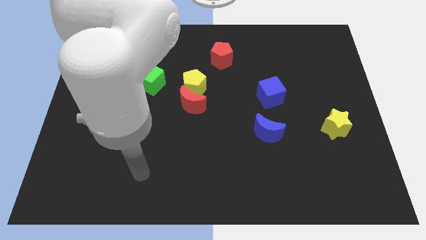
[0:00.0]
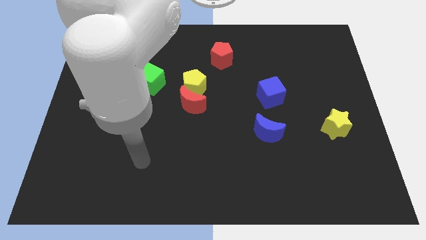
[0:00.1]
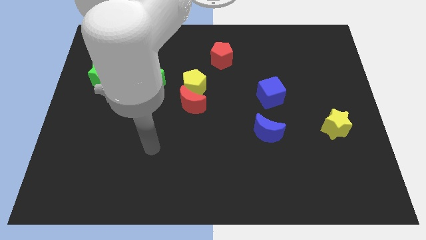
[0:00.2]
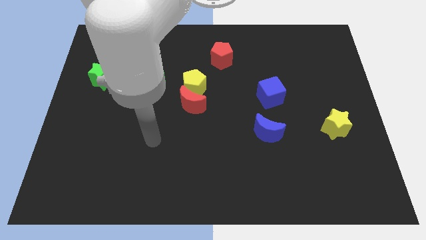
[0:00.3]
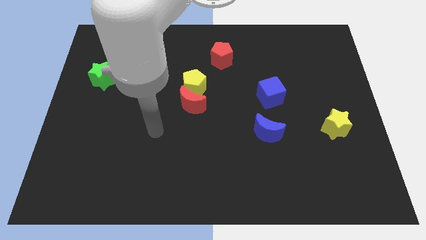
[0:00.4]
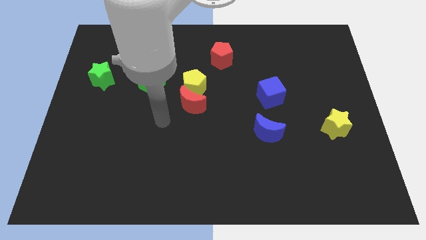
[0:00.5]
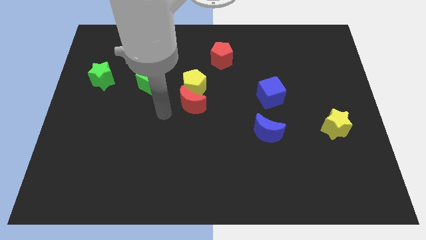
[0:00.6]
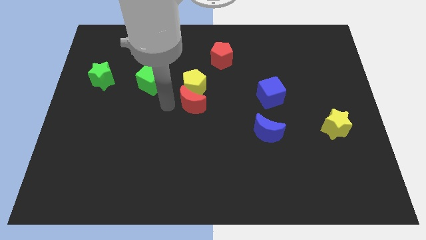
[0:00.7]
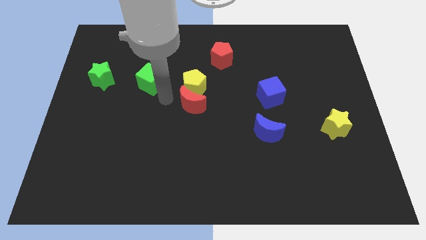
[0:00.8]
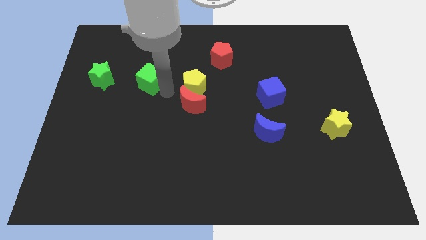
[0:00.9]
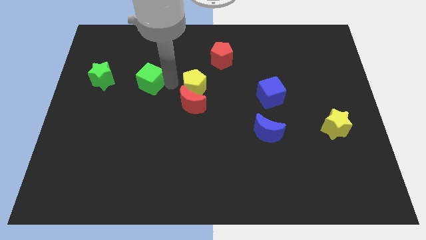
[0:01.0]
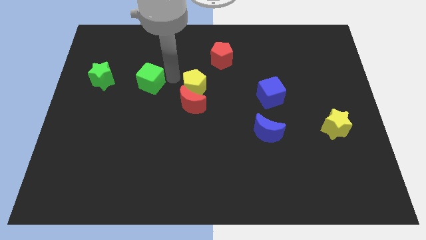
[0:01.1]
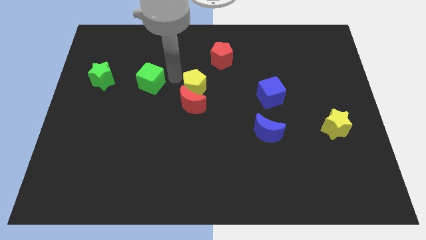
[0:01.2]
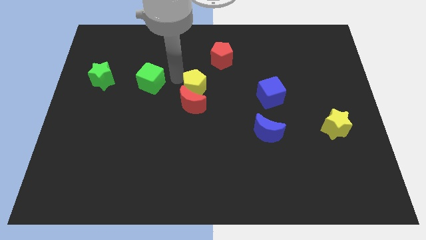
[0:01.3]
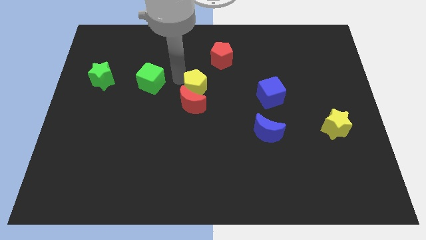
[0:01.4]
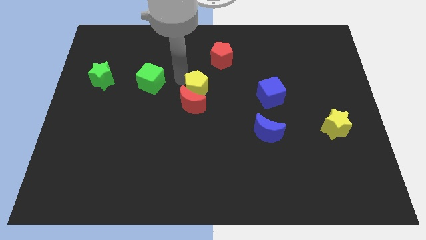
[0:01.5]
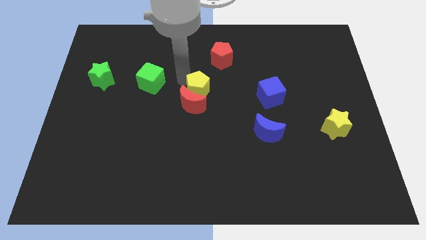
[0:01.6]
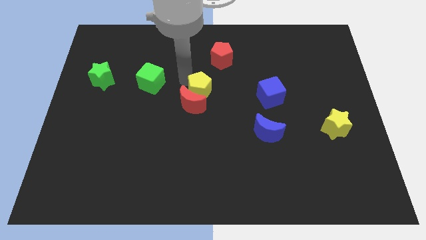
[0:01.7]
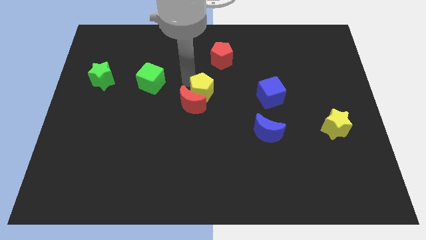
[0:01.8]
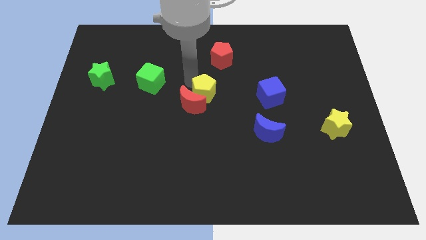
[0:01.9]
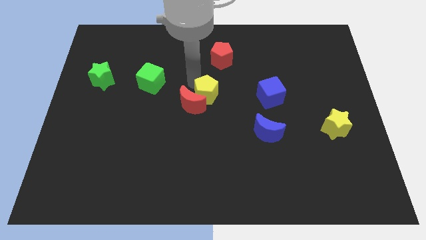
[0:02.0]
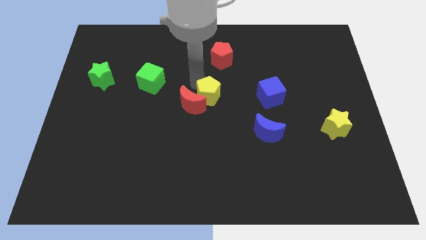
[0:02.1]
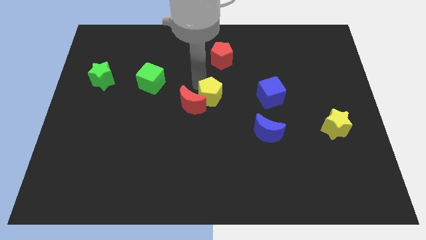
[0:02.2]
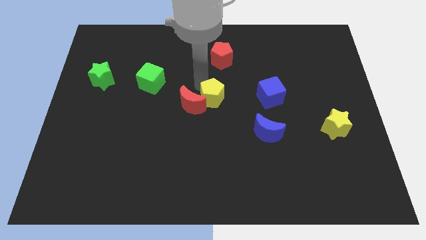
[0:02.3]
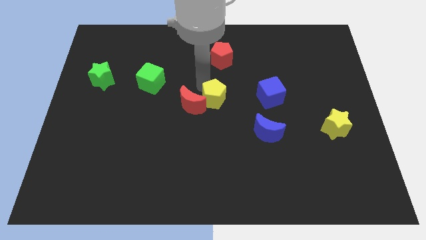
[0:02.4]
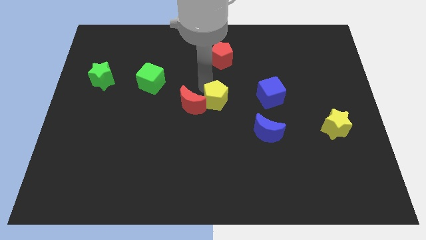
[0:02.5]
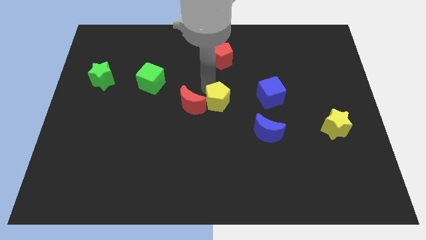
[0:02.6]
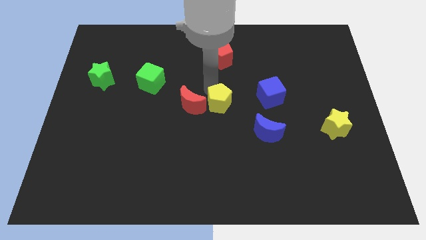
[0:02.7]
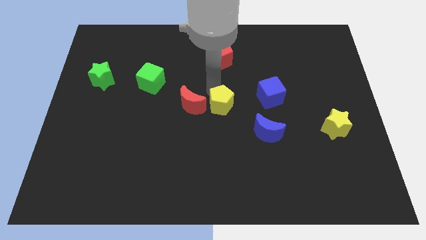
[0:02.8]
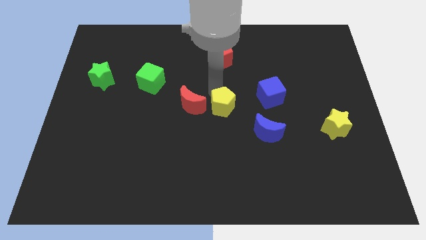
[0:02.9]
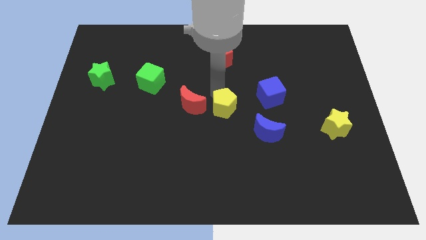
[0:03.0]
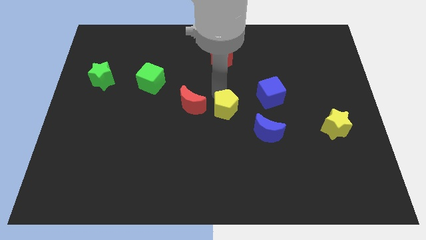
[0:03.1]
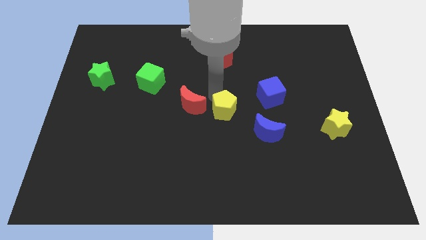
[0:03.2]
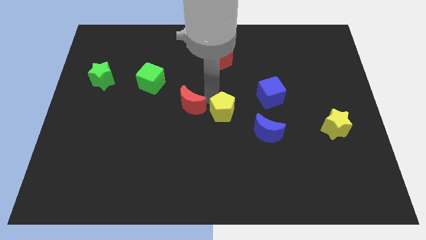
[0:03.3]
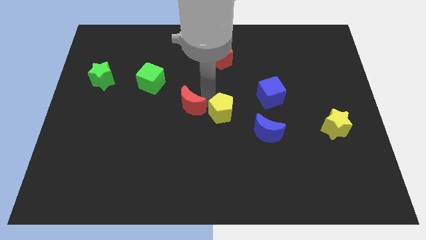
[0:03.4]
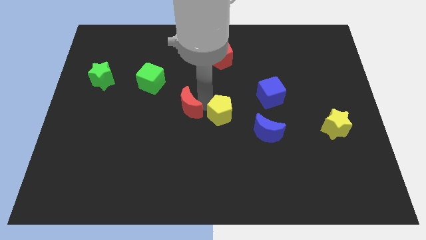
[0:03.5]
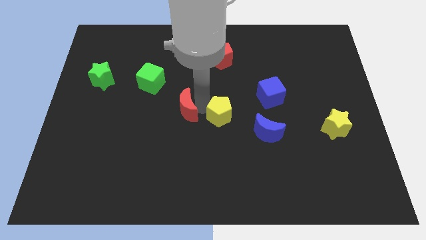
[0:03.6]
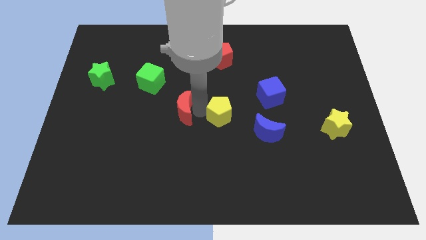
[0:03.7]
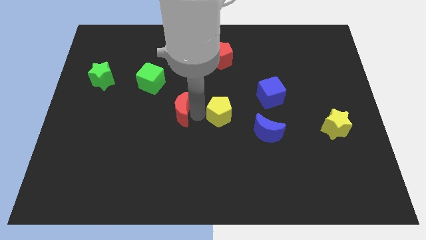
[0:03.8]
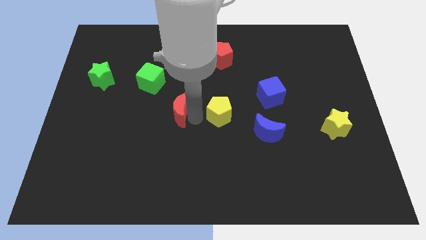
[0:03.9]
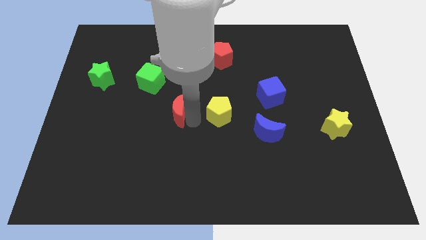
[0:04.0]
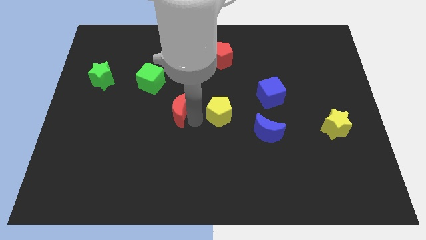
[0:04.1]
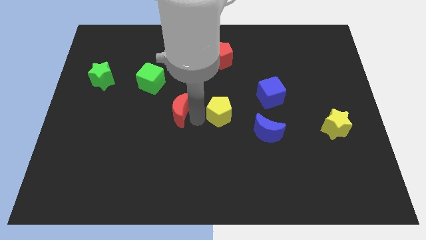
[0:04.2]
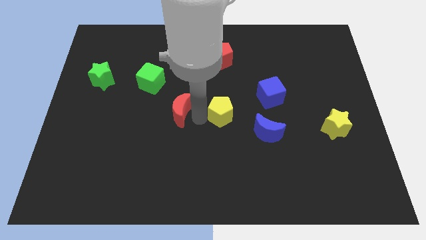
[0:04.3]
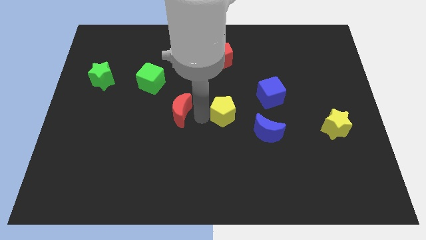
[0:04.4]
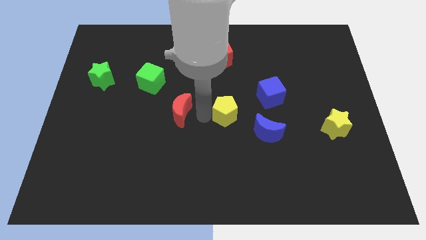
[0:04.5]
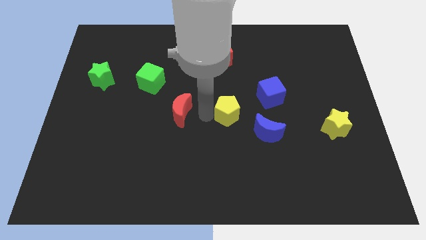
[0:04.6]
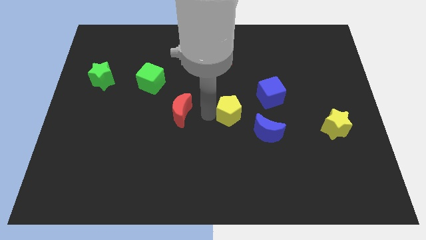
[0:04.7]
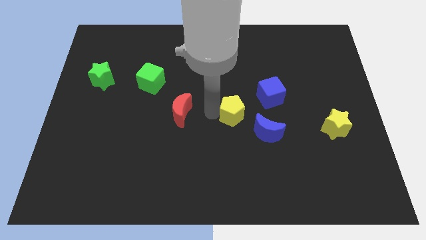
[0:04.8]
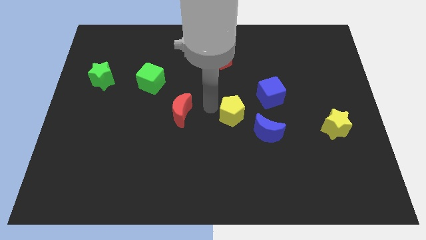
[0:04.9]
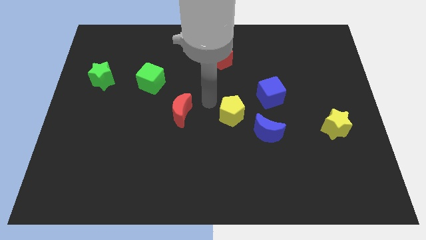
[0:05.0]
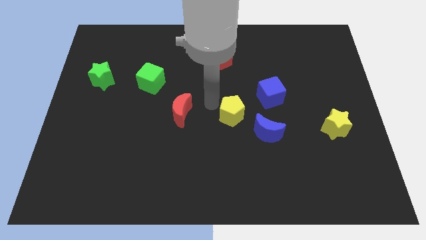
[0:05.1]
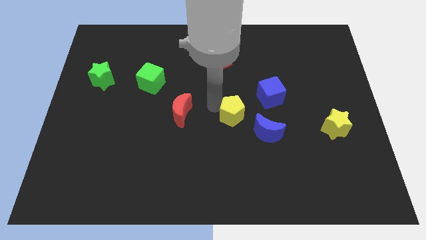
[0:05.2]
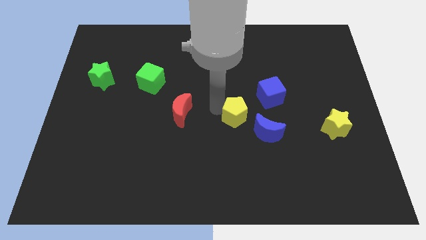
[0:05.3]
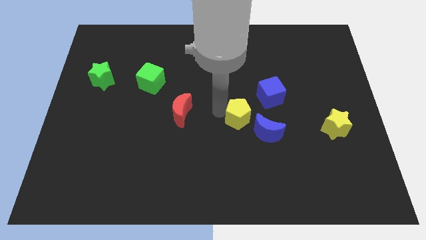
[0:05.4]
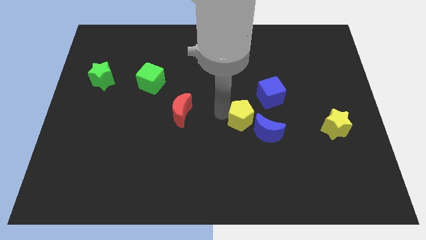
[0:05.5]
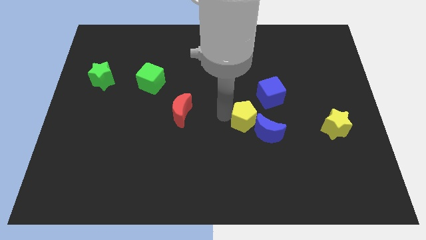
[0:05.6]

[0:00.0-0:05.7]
push the yellow pentagon towards the blue moon

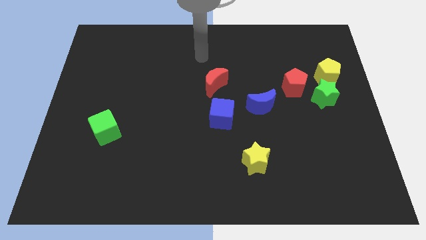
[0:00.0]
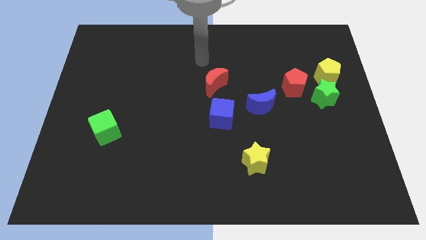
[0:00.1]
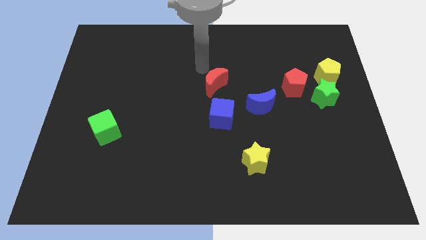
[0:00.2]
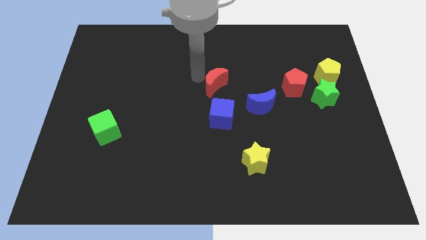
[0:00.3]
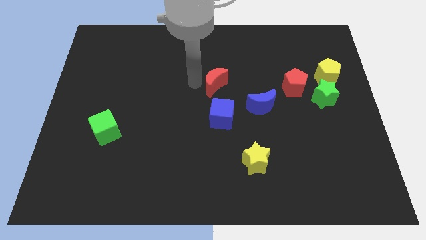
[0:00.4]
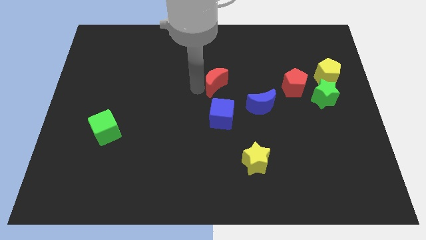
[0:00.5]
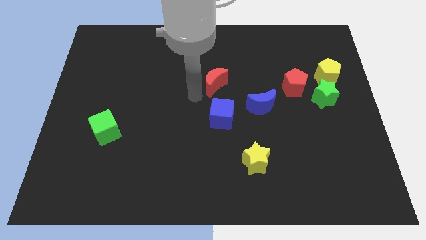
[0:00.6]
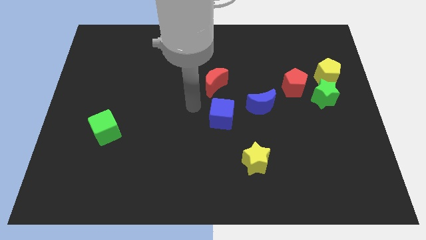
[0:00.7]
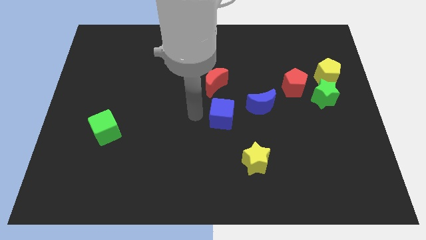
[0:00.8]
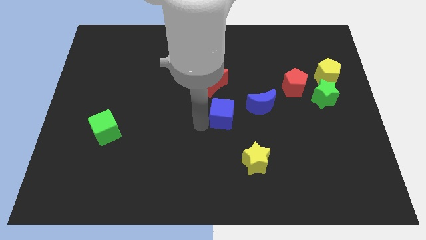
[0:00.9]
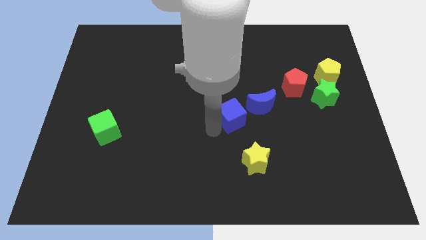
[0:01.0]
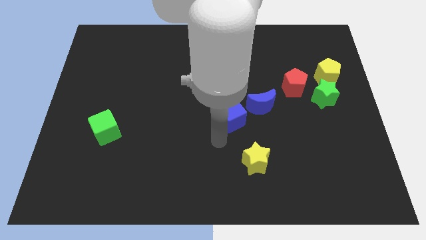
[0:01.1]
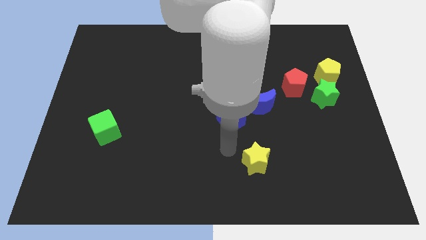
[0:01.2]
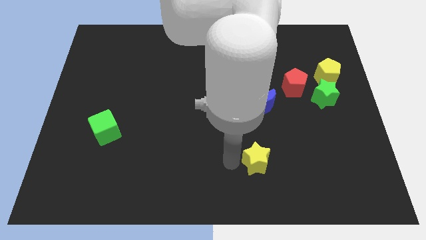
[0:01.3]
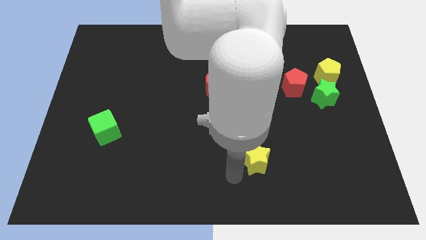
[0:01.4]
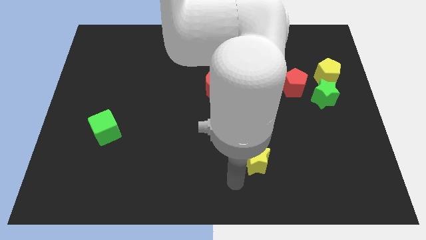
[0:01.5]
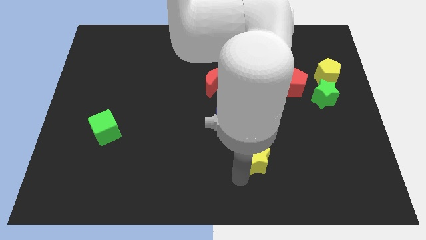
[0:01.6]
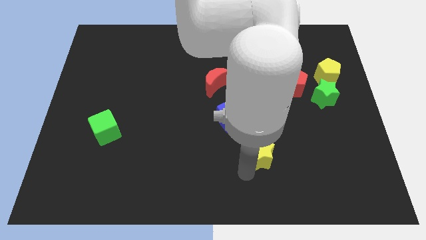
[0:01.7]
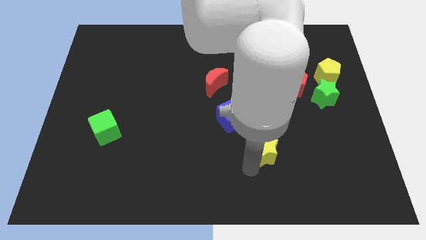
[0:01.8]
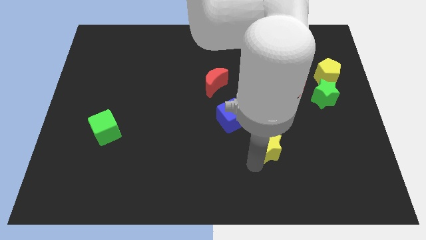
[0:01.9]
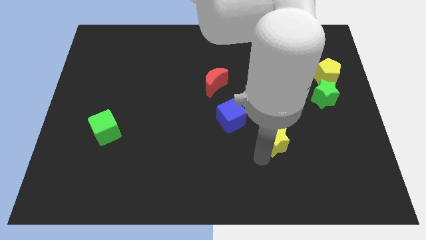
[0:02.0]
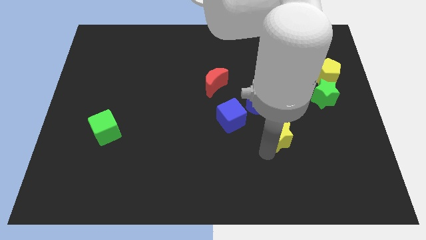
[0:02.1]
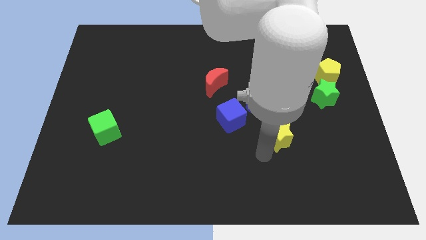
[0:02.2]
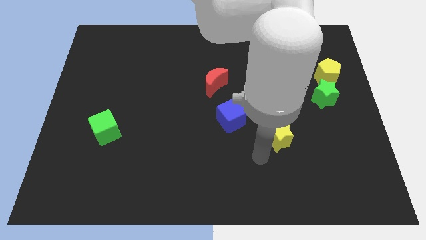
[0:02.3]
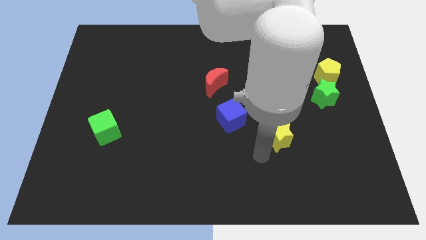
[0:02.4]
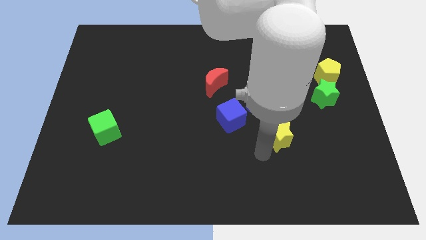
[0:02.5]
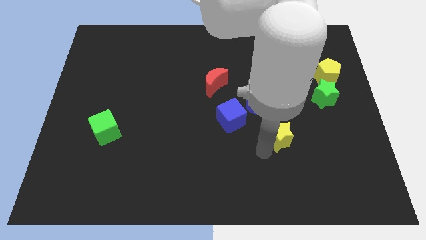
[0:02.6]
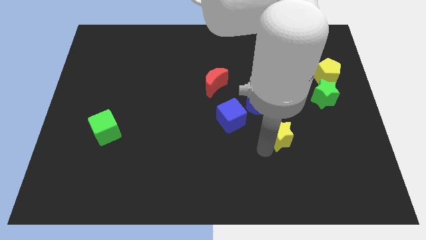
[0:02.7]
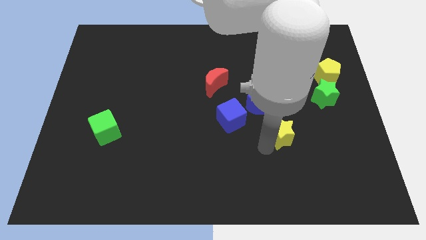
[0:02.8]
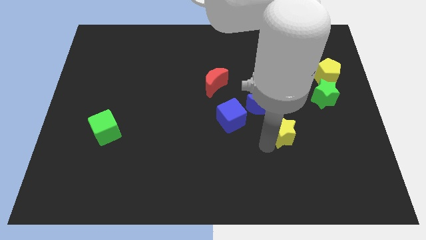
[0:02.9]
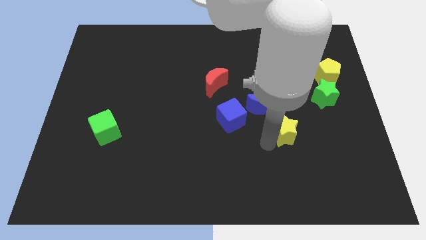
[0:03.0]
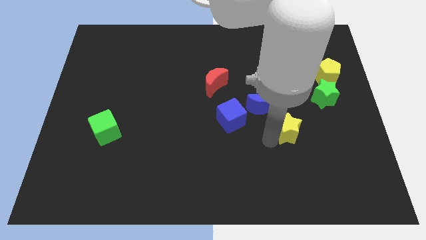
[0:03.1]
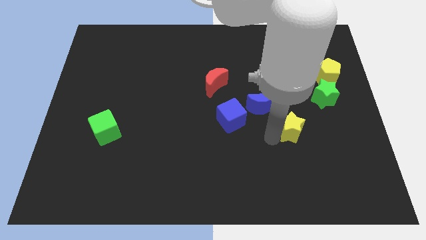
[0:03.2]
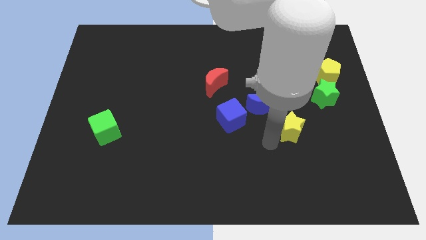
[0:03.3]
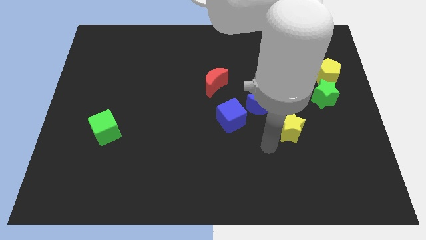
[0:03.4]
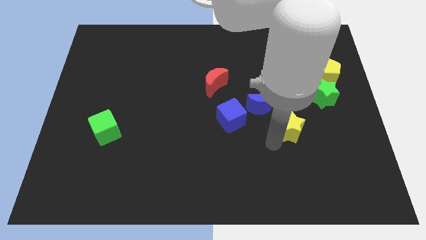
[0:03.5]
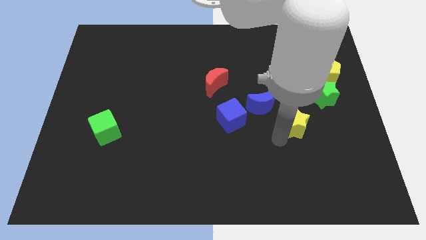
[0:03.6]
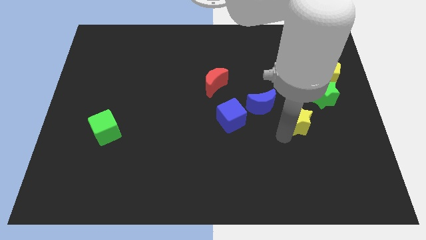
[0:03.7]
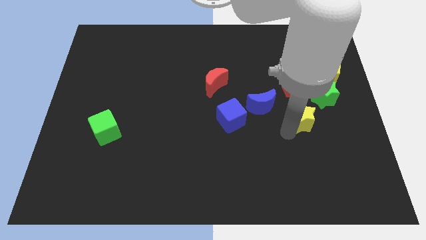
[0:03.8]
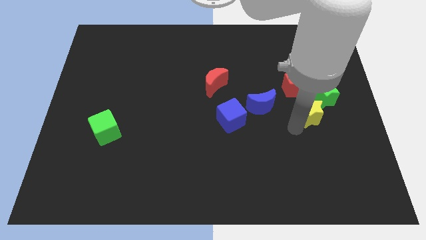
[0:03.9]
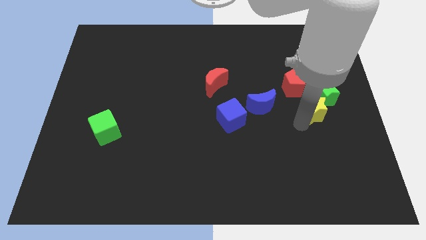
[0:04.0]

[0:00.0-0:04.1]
put the yellow star close to the green star
